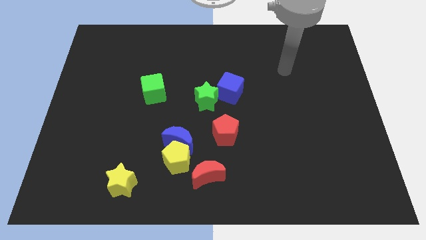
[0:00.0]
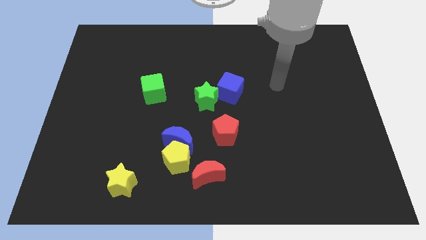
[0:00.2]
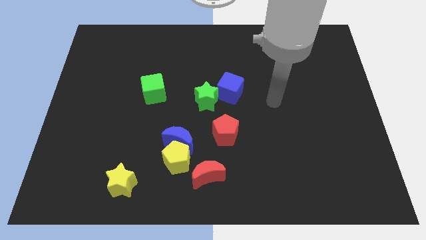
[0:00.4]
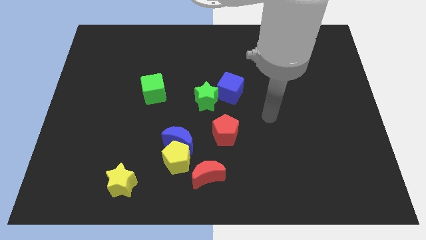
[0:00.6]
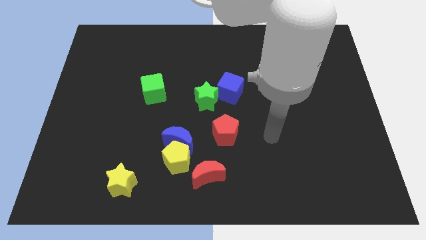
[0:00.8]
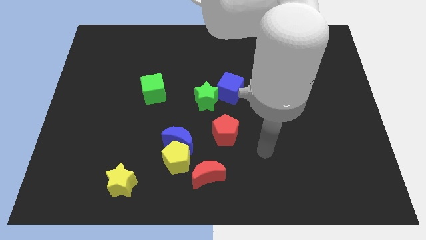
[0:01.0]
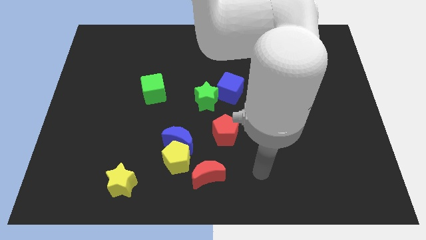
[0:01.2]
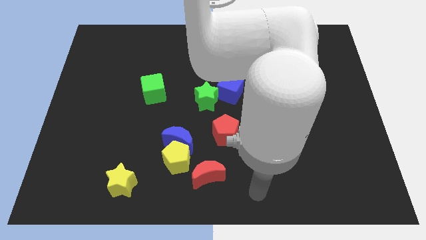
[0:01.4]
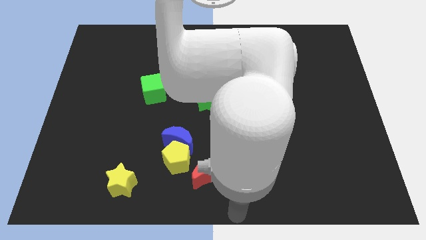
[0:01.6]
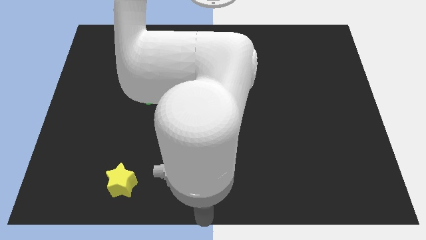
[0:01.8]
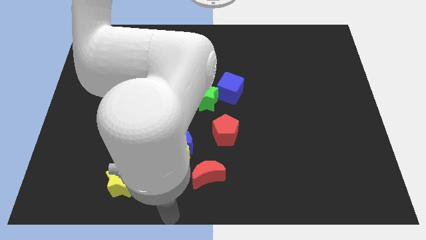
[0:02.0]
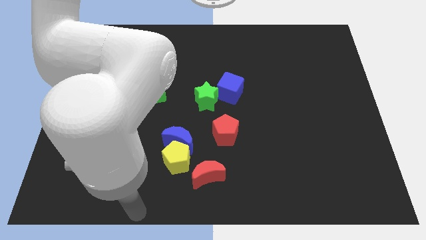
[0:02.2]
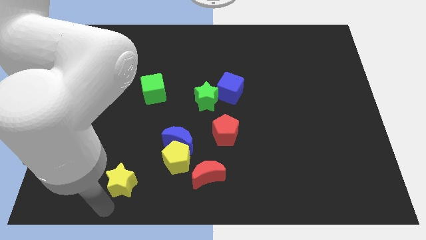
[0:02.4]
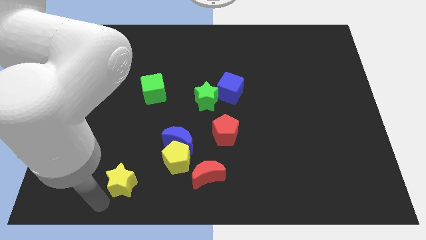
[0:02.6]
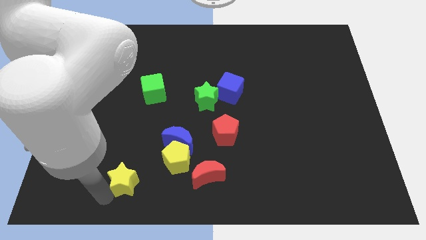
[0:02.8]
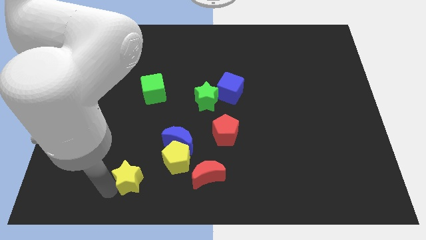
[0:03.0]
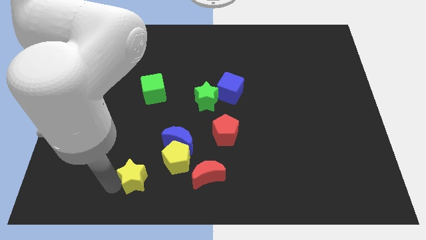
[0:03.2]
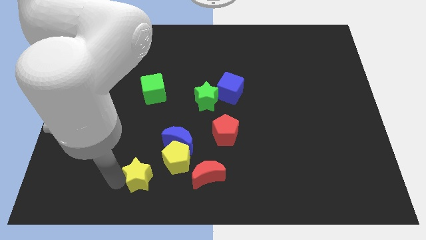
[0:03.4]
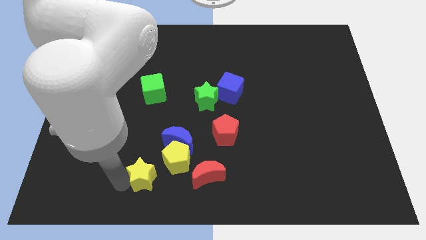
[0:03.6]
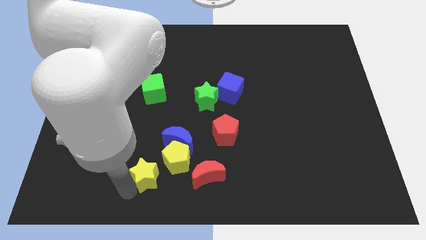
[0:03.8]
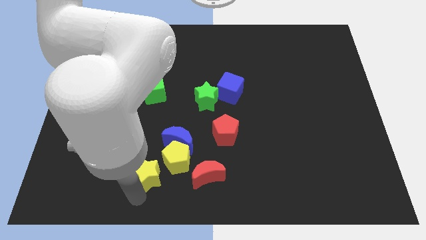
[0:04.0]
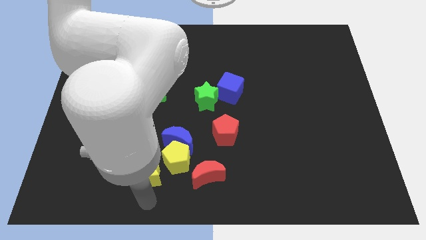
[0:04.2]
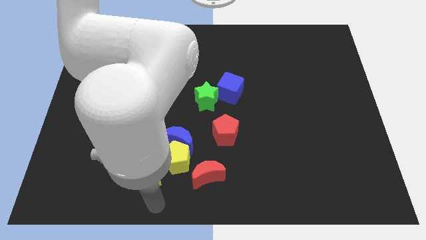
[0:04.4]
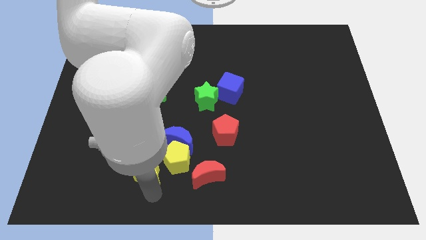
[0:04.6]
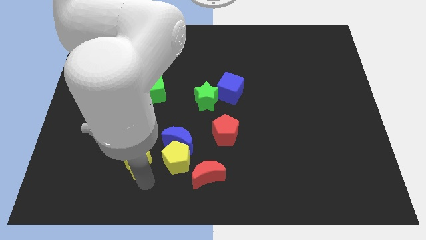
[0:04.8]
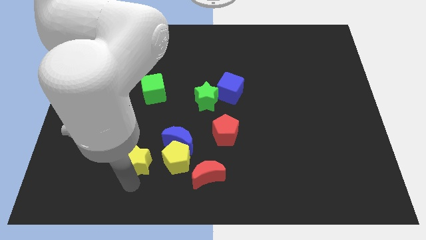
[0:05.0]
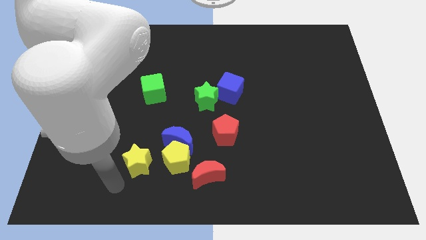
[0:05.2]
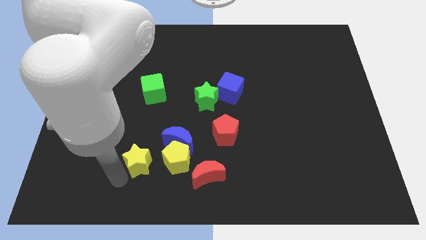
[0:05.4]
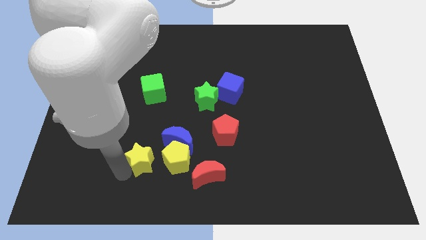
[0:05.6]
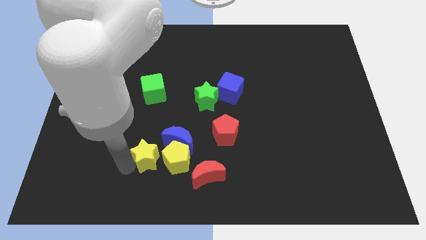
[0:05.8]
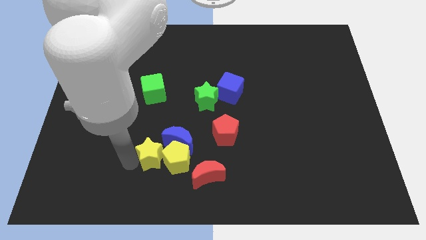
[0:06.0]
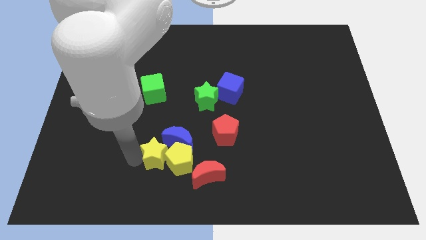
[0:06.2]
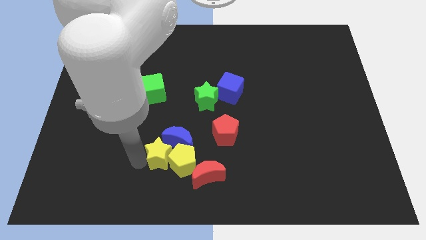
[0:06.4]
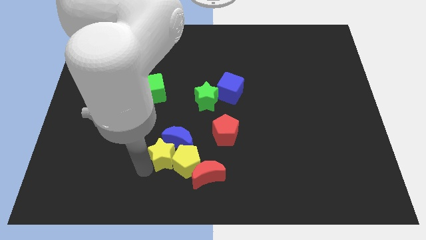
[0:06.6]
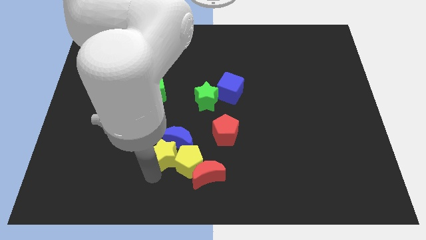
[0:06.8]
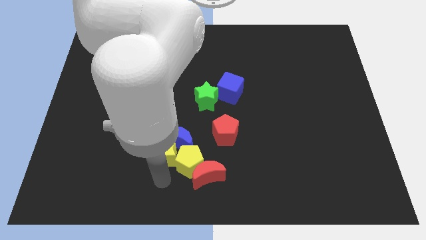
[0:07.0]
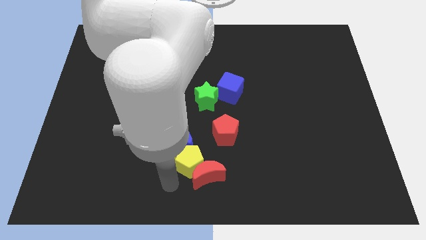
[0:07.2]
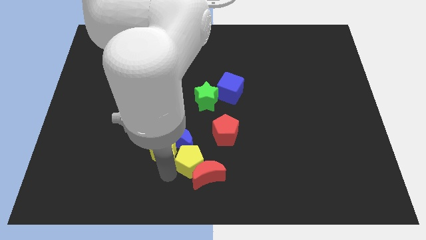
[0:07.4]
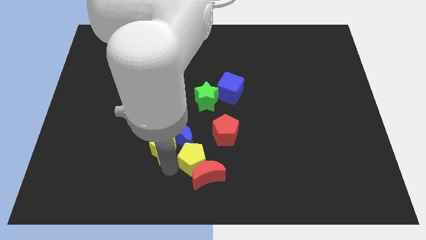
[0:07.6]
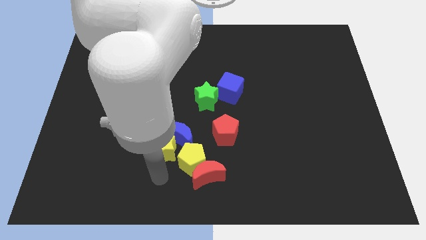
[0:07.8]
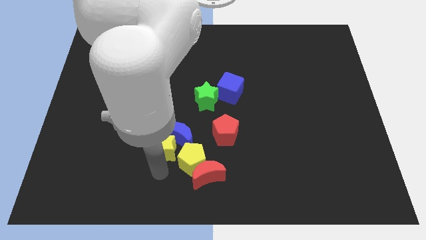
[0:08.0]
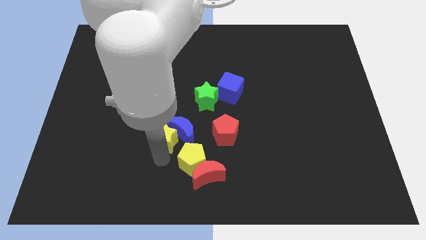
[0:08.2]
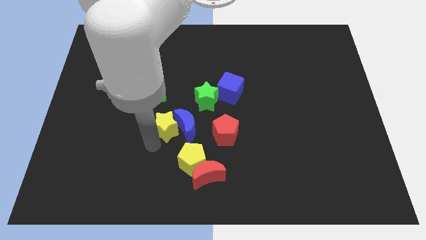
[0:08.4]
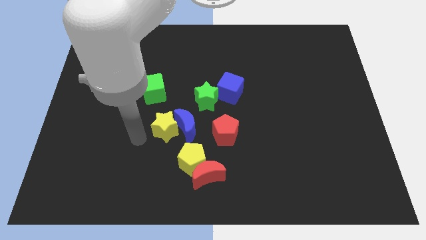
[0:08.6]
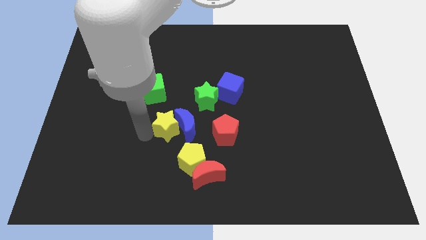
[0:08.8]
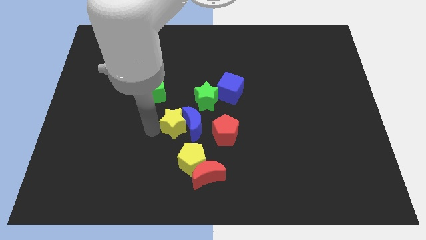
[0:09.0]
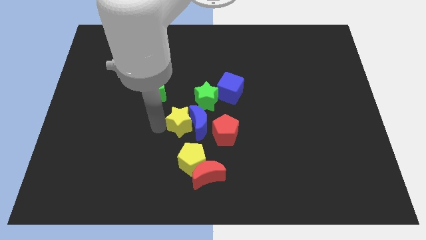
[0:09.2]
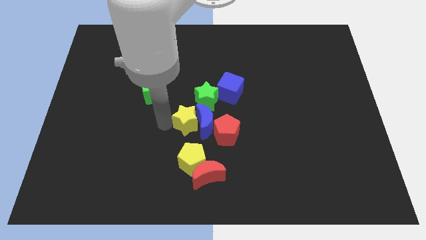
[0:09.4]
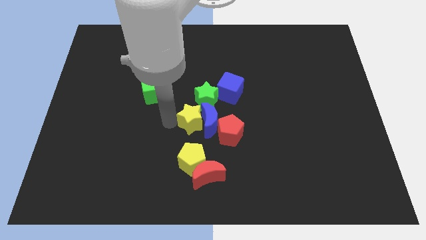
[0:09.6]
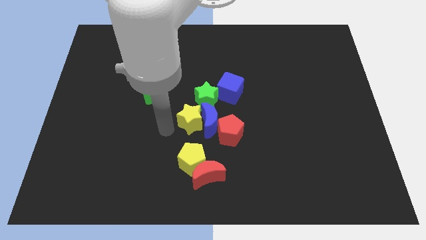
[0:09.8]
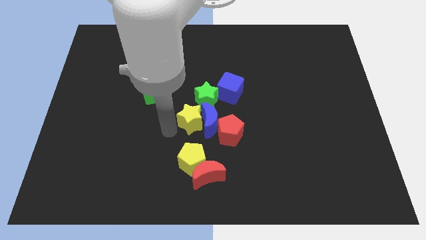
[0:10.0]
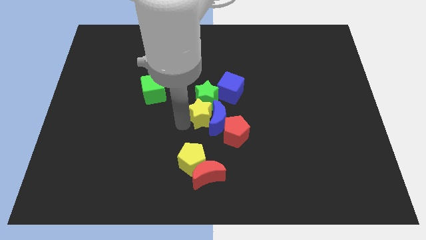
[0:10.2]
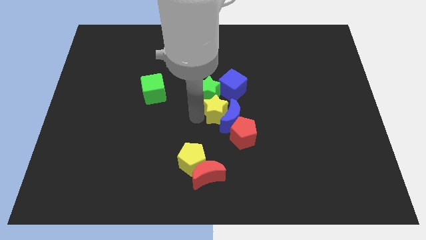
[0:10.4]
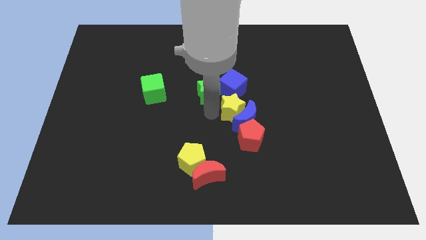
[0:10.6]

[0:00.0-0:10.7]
put the yellow star to the bottom right side of the blue cube

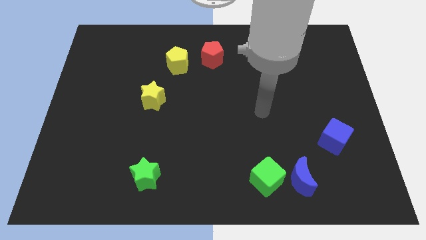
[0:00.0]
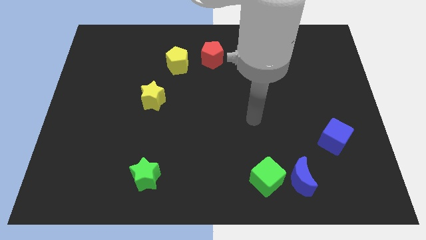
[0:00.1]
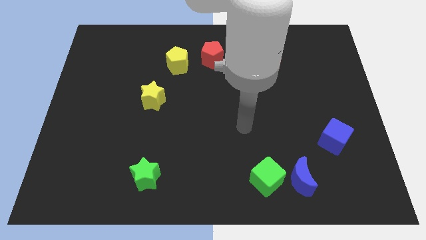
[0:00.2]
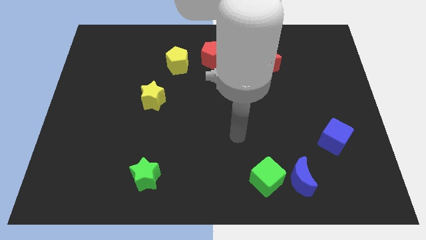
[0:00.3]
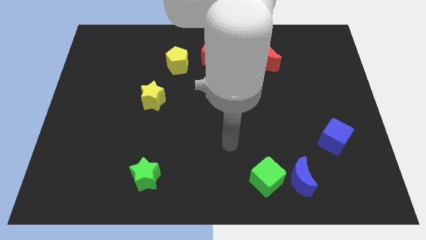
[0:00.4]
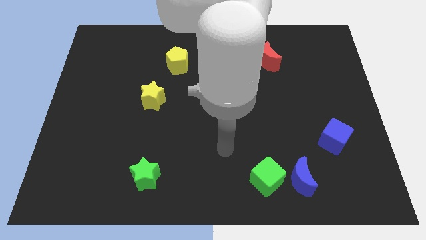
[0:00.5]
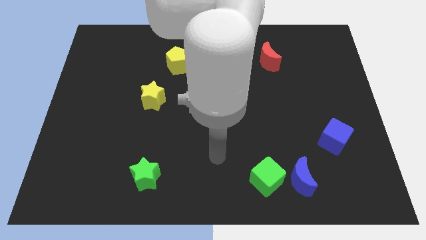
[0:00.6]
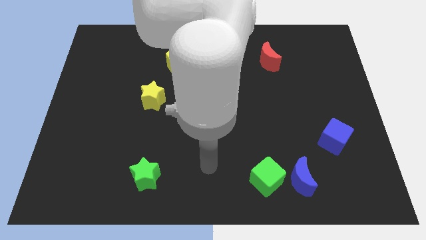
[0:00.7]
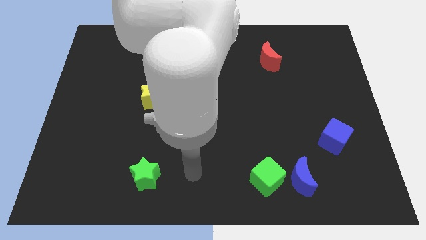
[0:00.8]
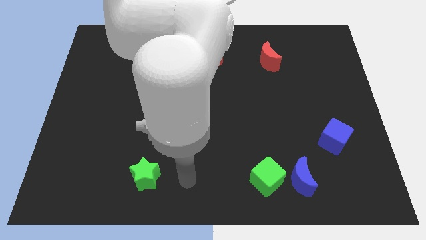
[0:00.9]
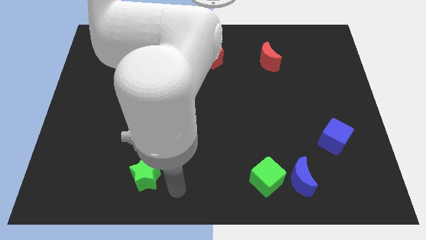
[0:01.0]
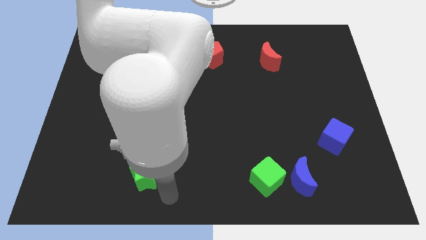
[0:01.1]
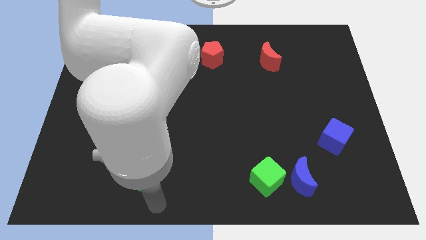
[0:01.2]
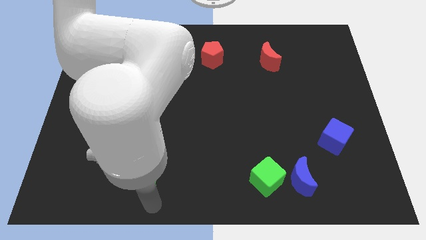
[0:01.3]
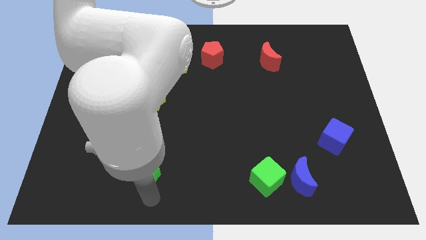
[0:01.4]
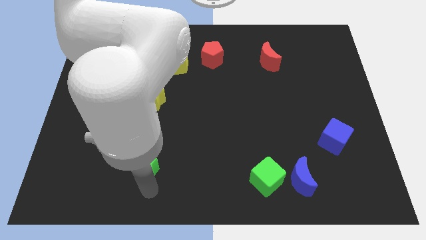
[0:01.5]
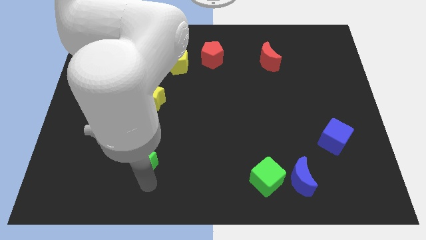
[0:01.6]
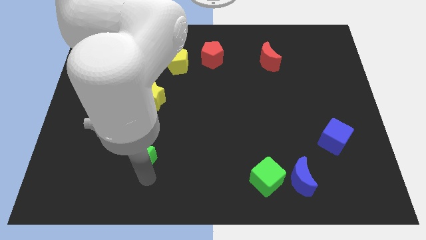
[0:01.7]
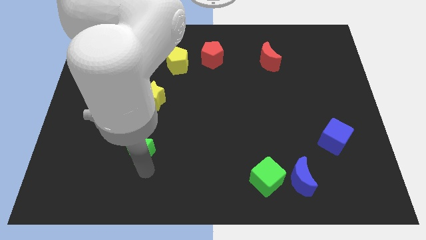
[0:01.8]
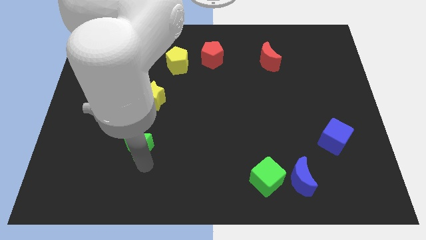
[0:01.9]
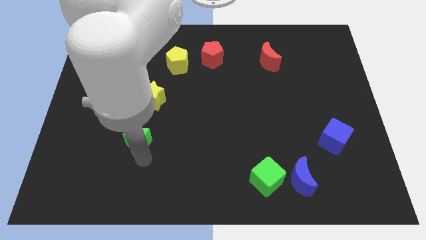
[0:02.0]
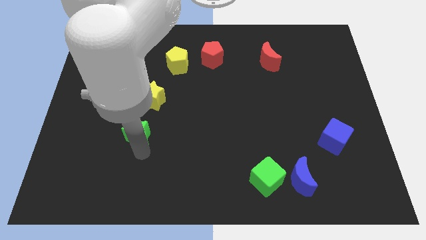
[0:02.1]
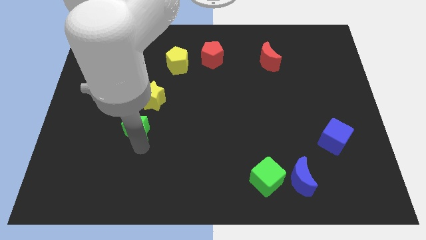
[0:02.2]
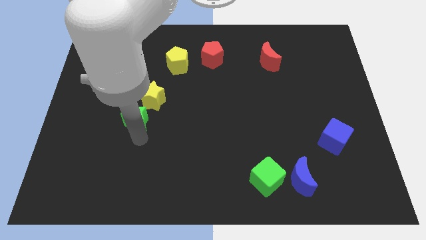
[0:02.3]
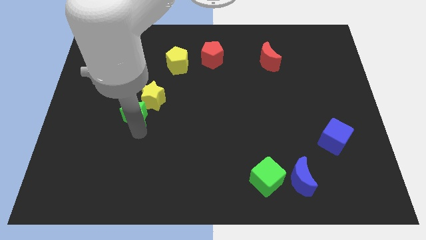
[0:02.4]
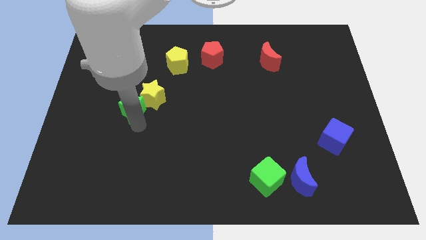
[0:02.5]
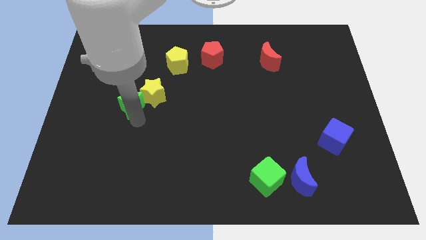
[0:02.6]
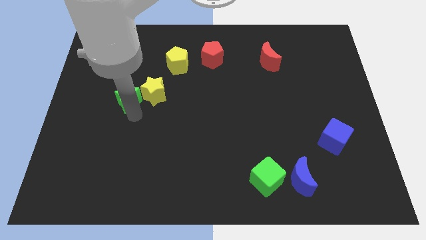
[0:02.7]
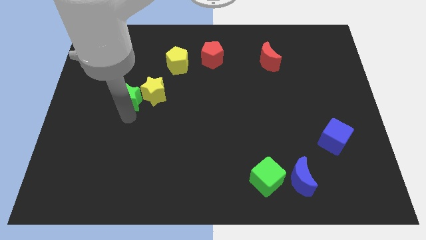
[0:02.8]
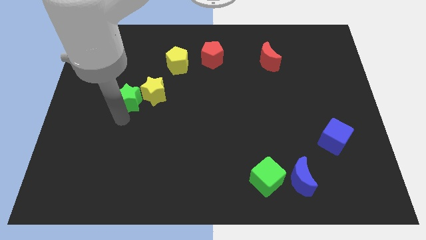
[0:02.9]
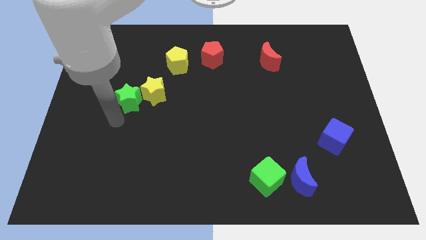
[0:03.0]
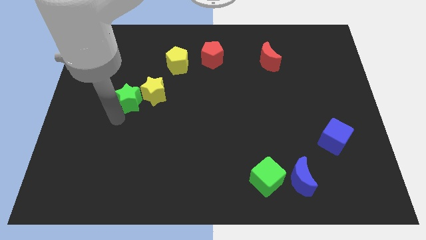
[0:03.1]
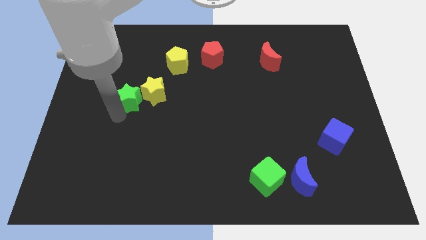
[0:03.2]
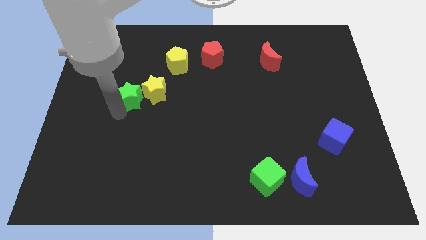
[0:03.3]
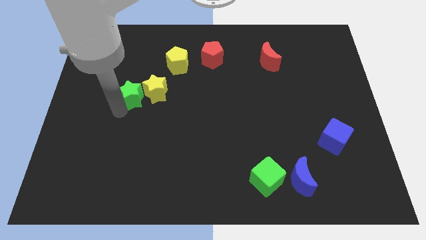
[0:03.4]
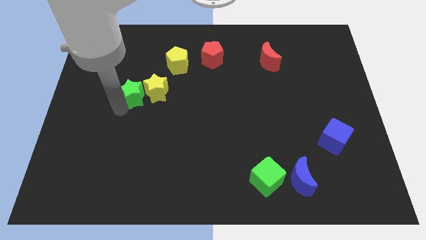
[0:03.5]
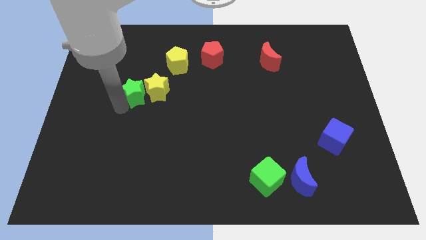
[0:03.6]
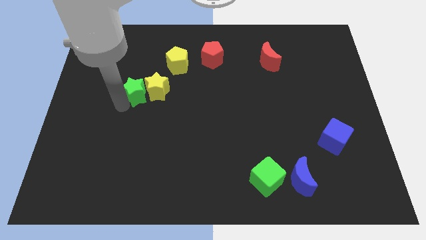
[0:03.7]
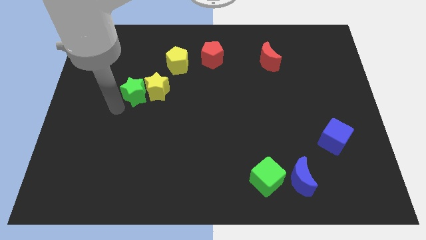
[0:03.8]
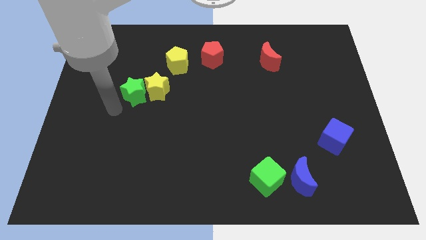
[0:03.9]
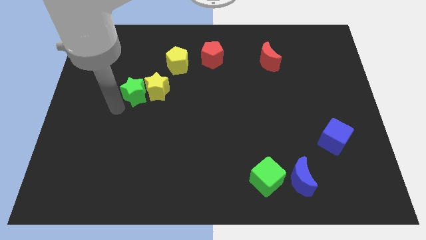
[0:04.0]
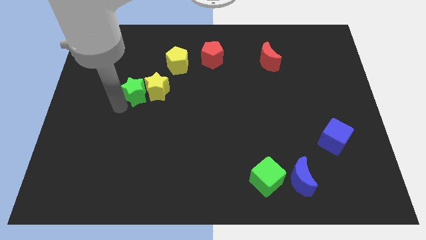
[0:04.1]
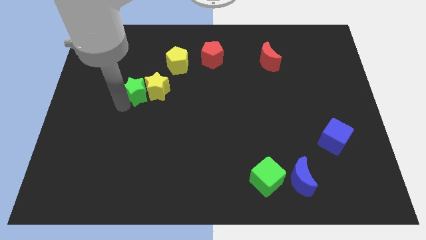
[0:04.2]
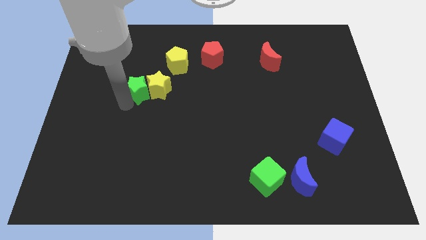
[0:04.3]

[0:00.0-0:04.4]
put the green star diagonally down and to the left of the yellow pentagon
